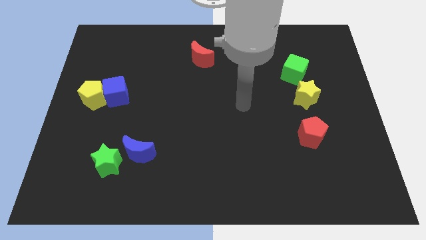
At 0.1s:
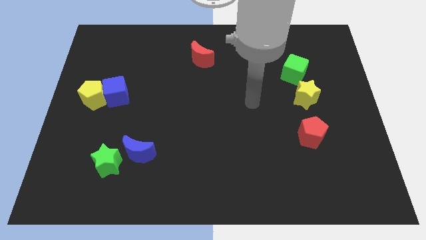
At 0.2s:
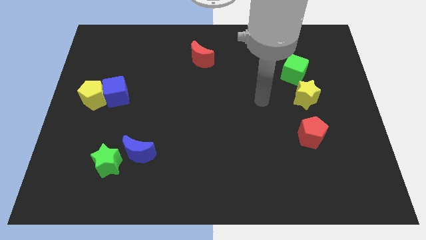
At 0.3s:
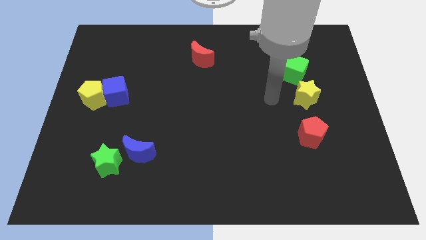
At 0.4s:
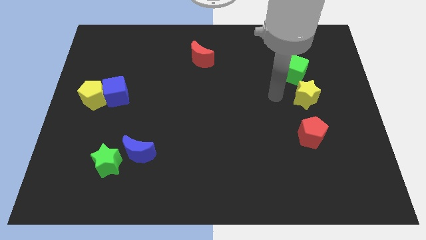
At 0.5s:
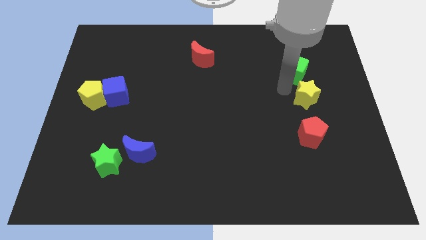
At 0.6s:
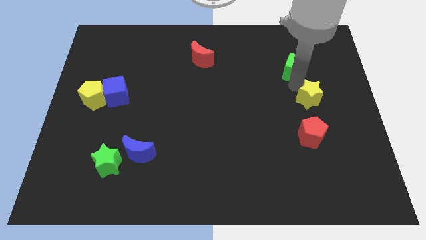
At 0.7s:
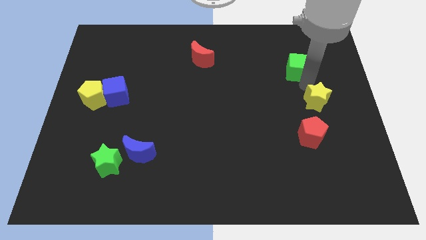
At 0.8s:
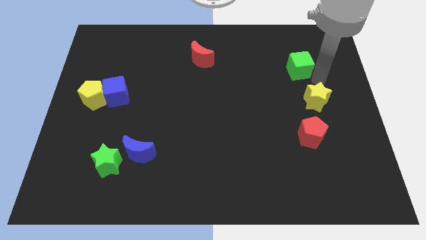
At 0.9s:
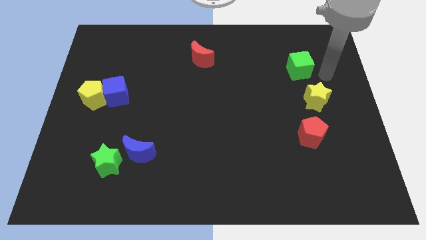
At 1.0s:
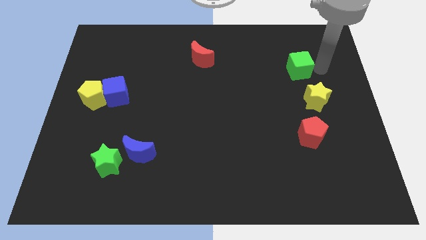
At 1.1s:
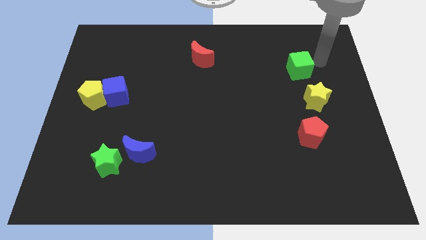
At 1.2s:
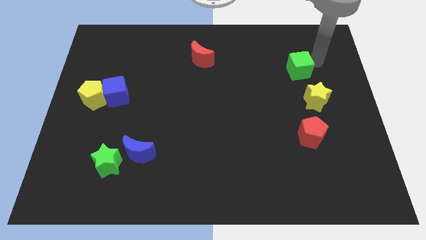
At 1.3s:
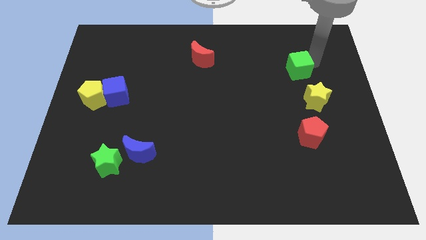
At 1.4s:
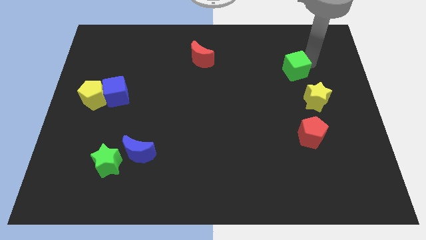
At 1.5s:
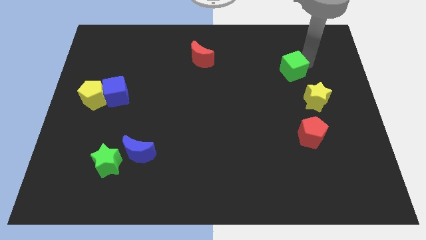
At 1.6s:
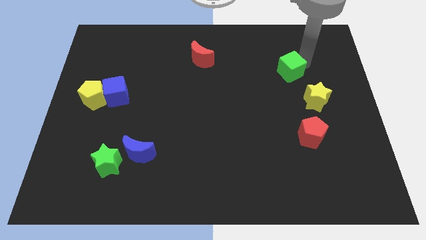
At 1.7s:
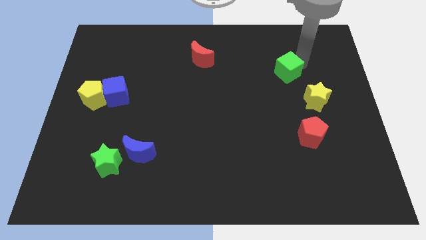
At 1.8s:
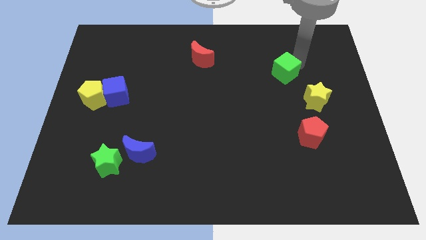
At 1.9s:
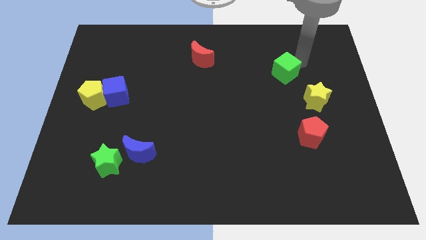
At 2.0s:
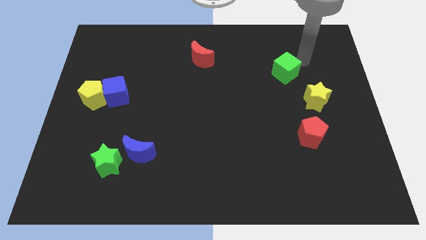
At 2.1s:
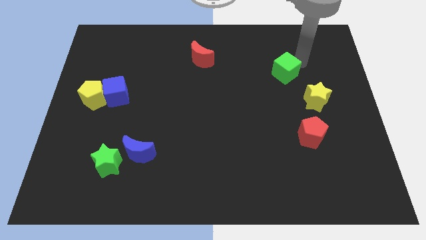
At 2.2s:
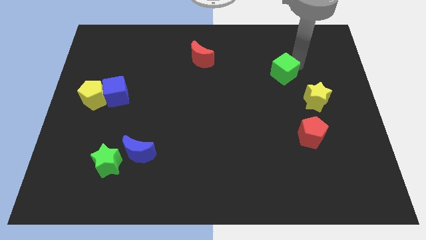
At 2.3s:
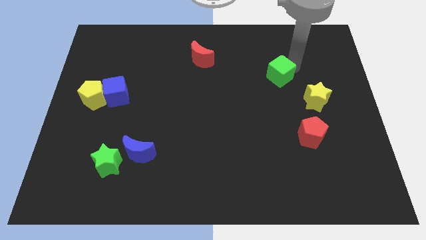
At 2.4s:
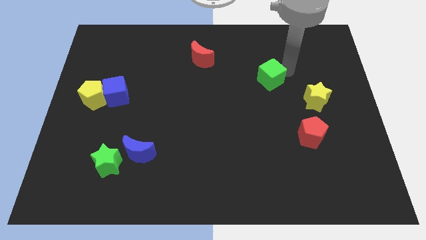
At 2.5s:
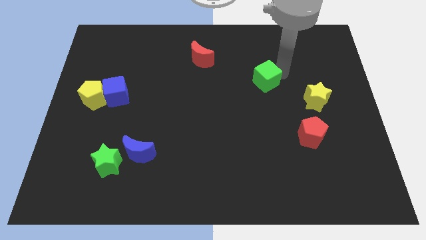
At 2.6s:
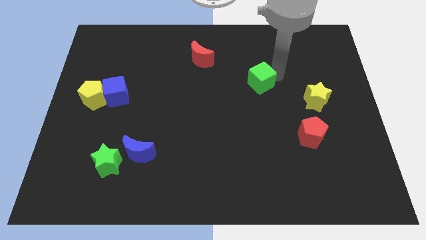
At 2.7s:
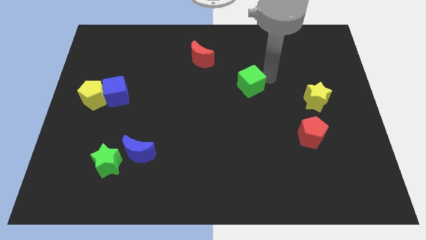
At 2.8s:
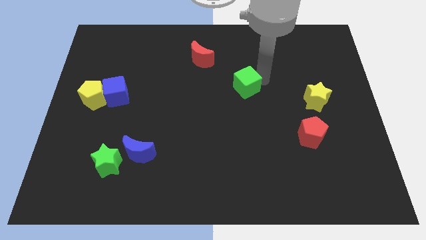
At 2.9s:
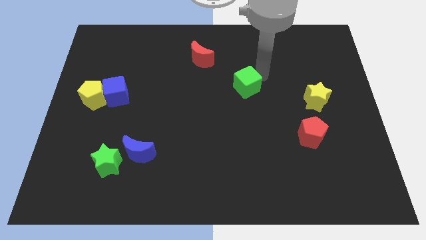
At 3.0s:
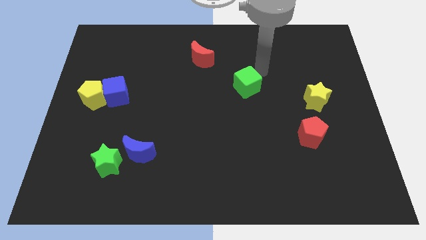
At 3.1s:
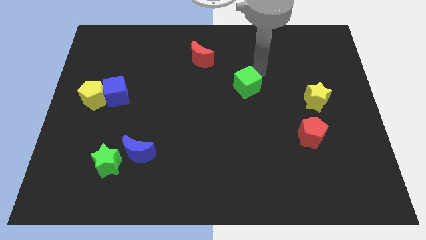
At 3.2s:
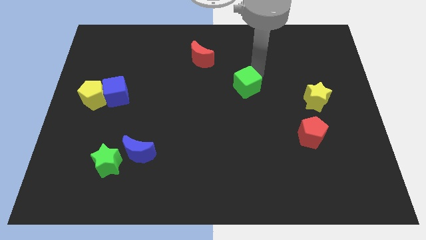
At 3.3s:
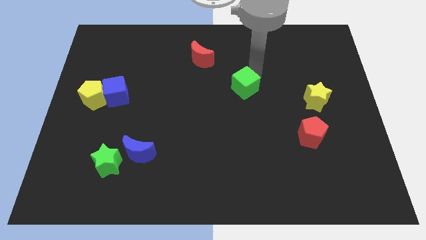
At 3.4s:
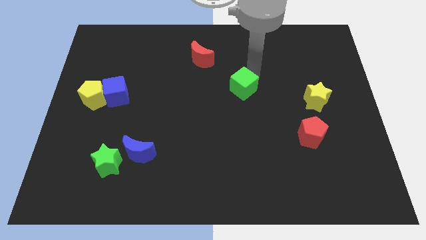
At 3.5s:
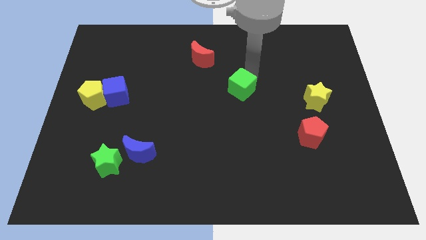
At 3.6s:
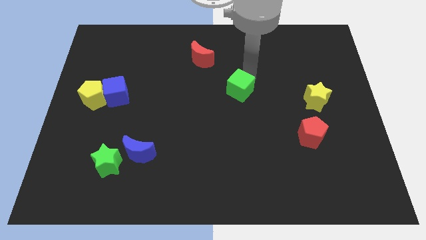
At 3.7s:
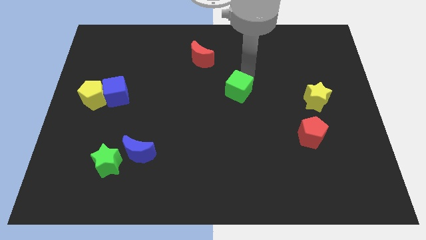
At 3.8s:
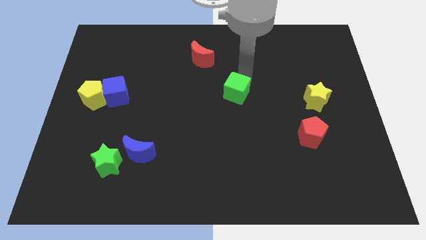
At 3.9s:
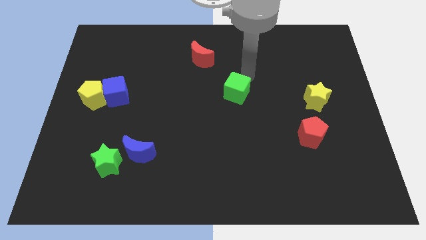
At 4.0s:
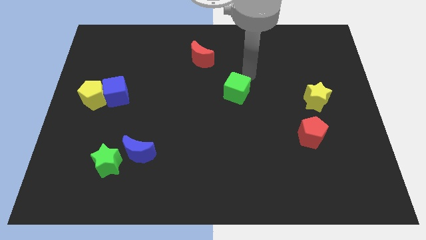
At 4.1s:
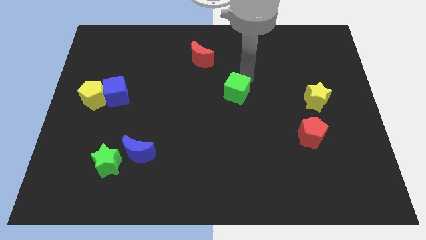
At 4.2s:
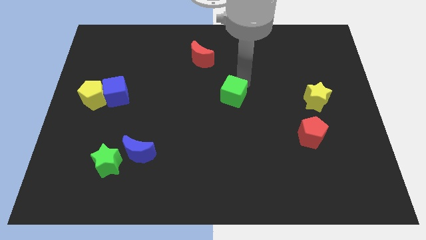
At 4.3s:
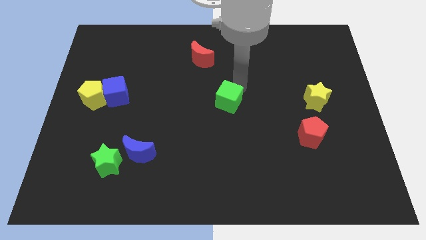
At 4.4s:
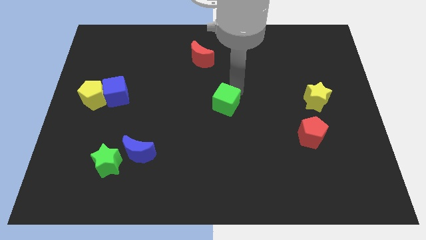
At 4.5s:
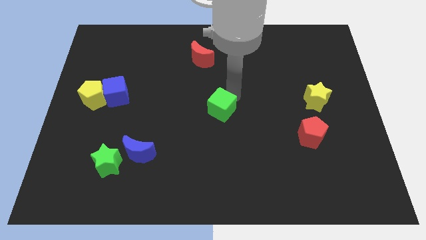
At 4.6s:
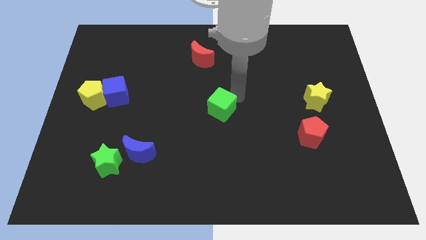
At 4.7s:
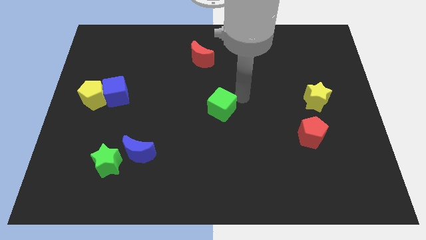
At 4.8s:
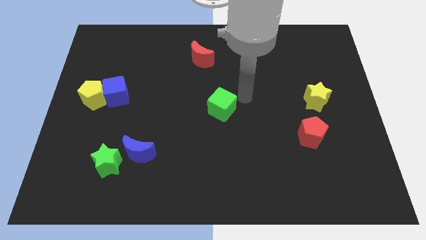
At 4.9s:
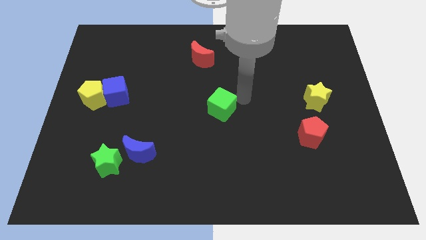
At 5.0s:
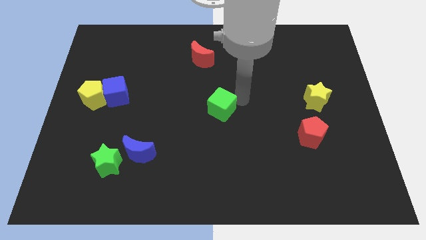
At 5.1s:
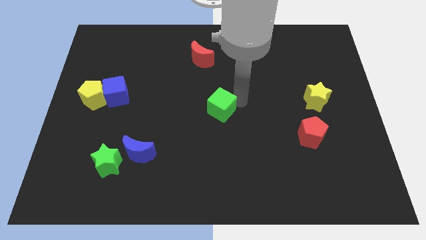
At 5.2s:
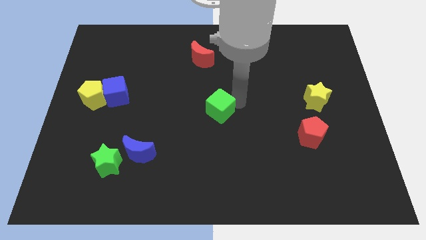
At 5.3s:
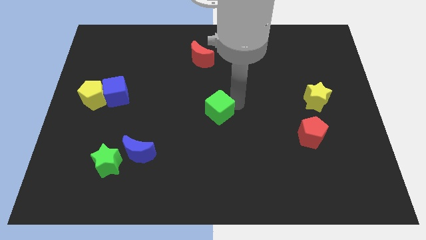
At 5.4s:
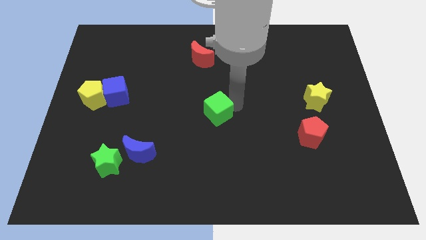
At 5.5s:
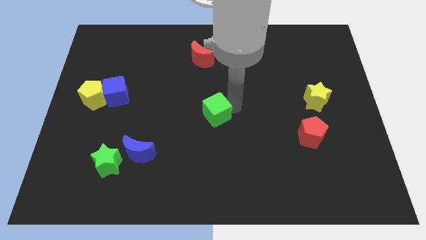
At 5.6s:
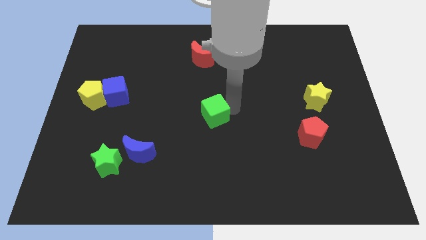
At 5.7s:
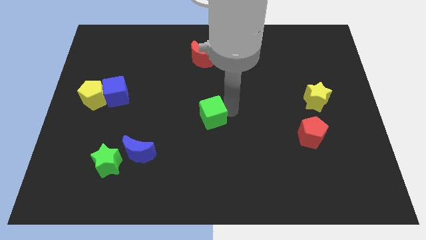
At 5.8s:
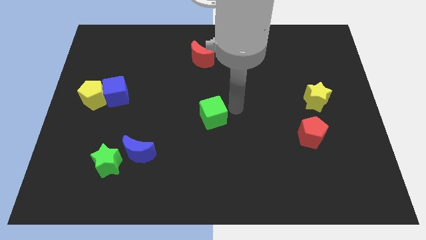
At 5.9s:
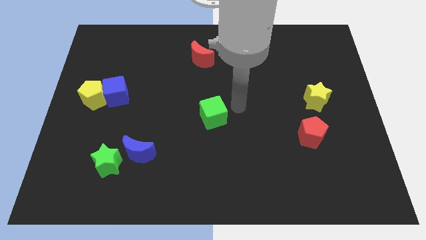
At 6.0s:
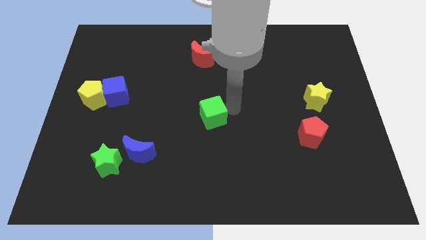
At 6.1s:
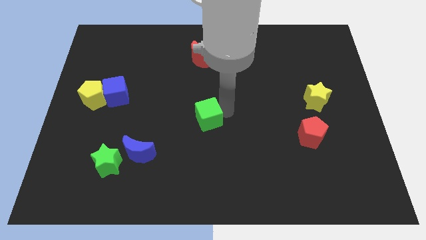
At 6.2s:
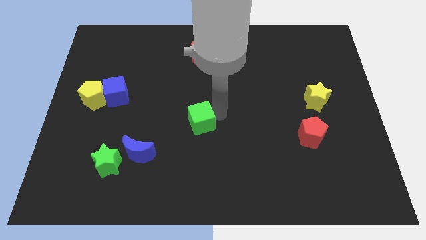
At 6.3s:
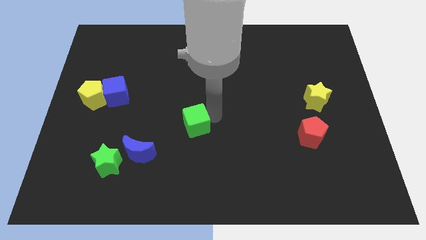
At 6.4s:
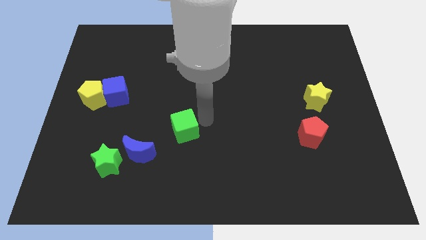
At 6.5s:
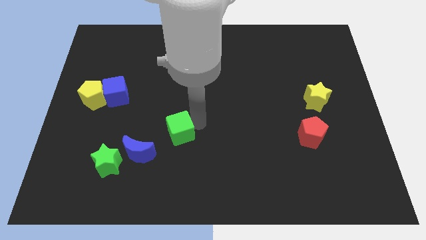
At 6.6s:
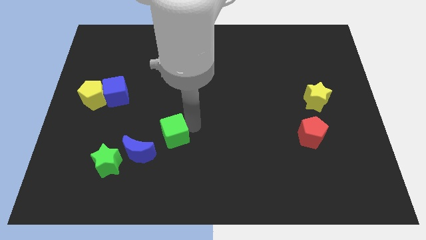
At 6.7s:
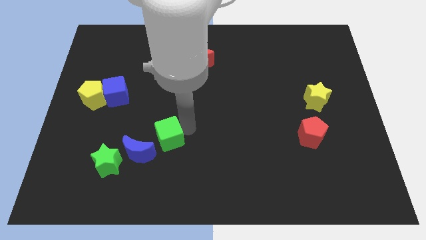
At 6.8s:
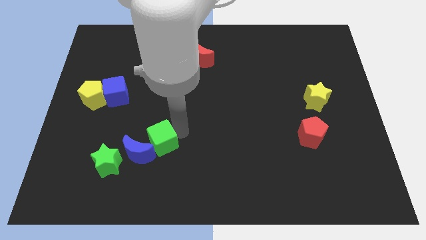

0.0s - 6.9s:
push the green cube to the blue moon
